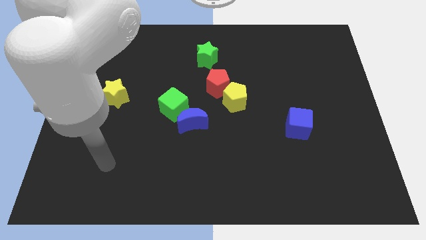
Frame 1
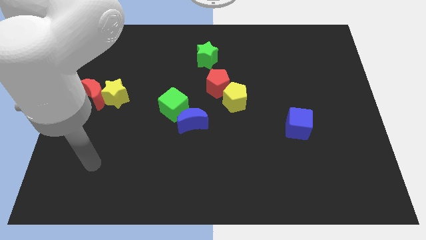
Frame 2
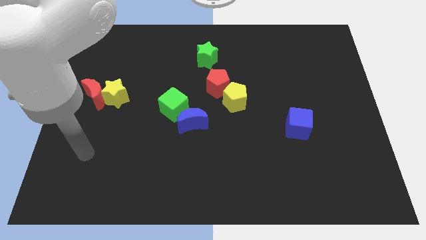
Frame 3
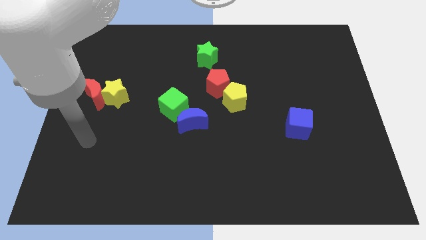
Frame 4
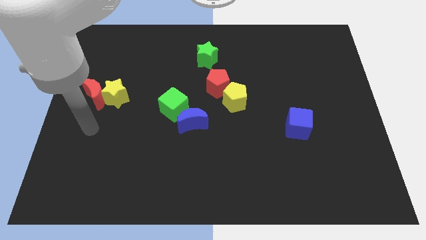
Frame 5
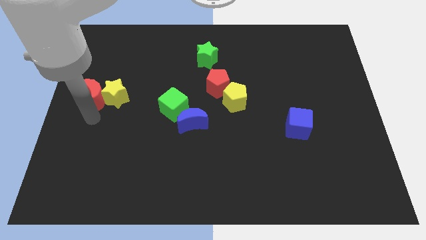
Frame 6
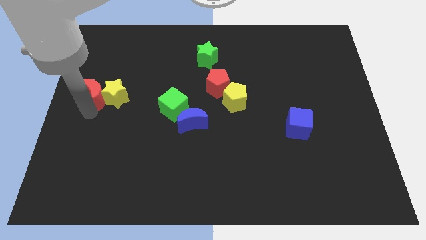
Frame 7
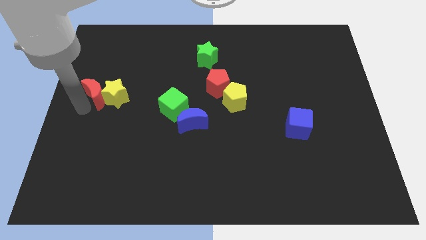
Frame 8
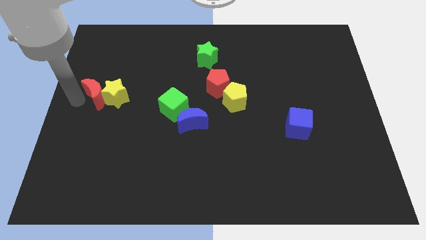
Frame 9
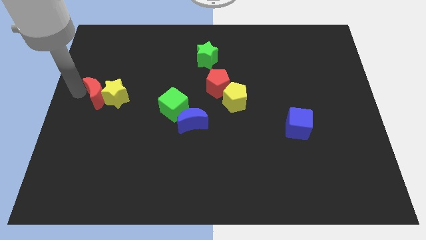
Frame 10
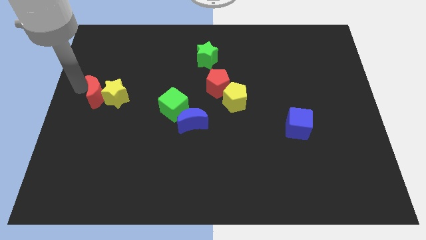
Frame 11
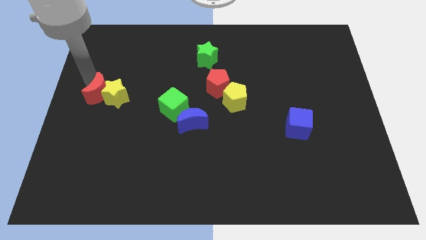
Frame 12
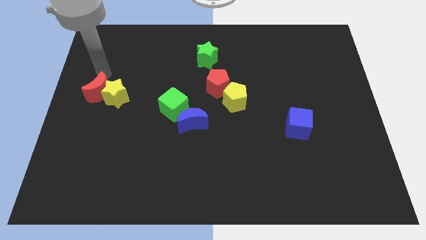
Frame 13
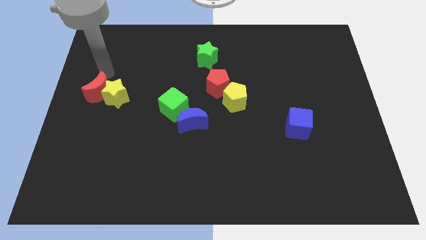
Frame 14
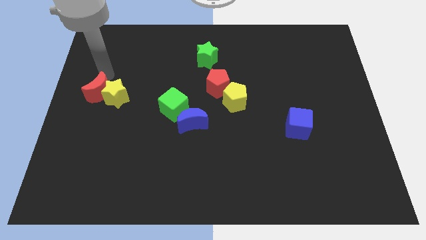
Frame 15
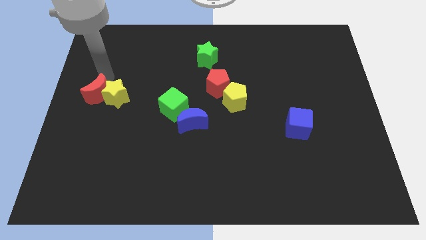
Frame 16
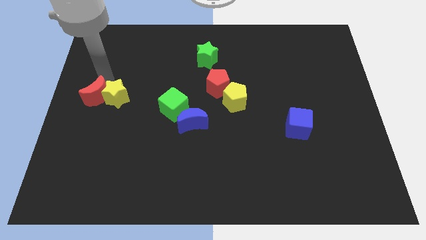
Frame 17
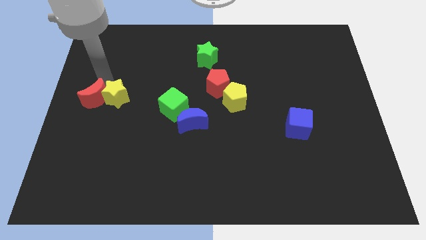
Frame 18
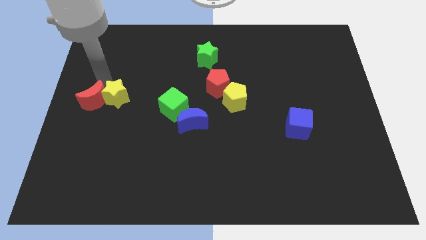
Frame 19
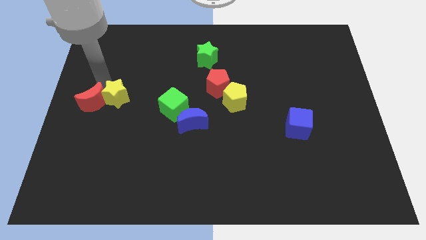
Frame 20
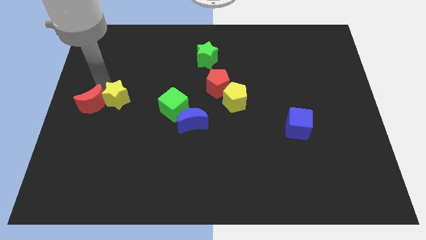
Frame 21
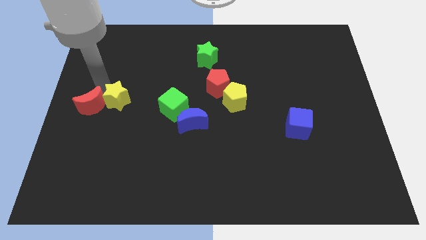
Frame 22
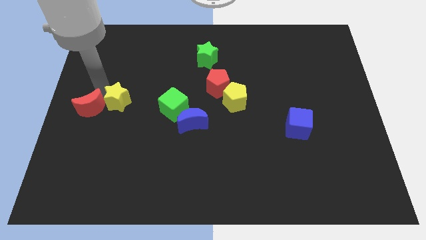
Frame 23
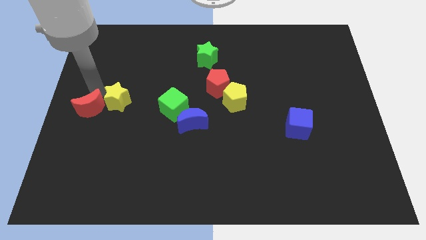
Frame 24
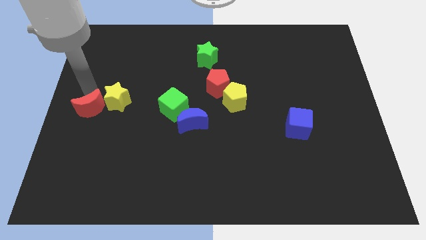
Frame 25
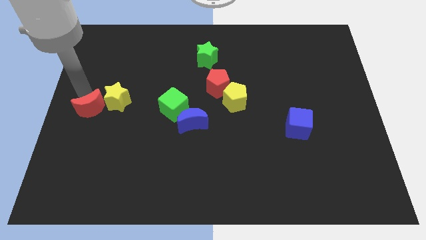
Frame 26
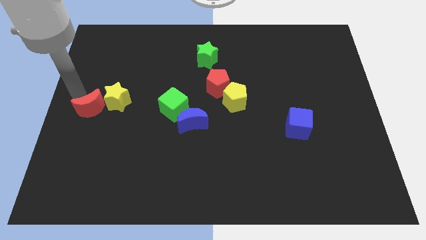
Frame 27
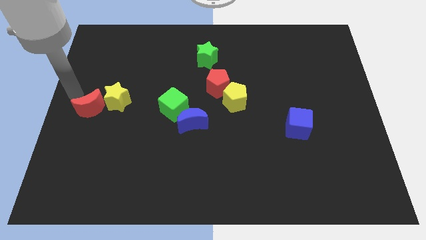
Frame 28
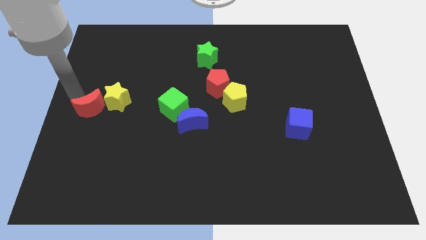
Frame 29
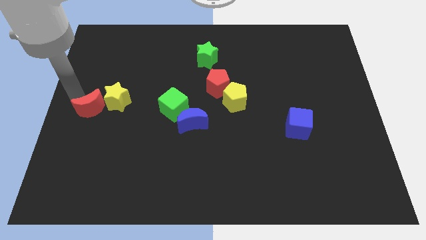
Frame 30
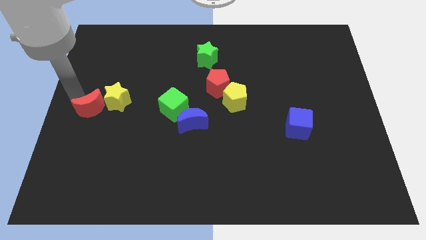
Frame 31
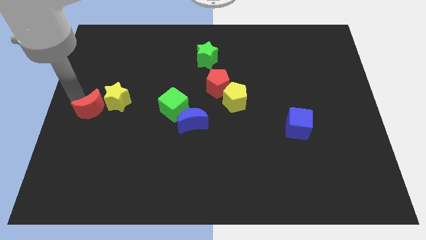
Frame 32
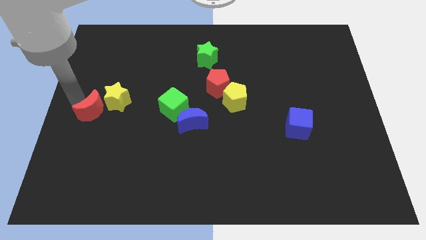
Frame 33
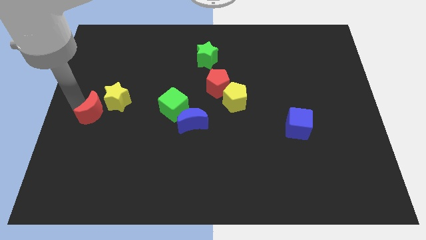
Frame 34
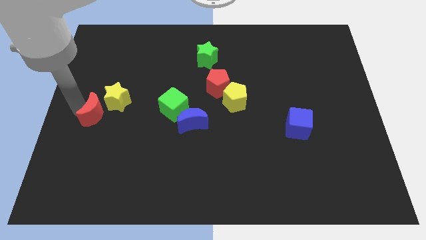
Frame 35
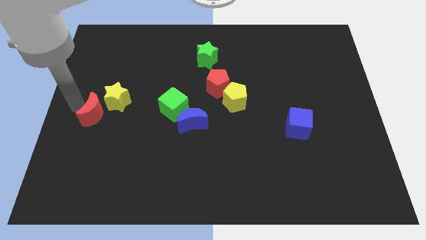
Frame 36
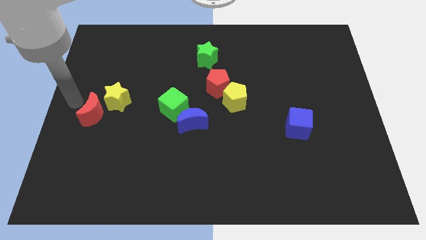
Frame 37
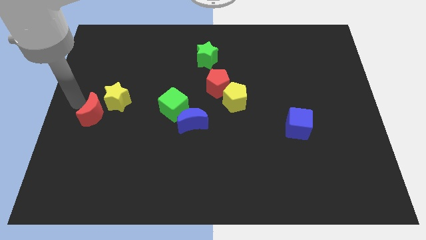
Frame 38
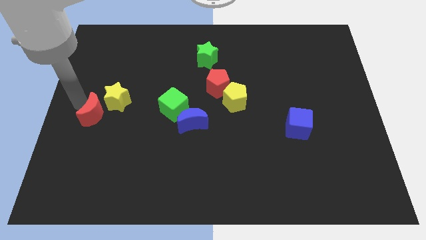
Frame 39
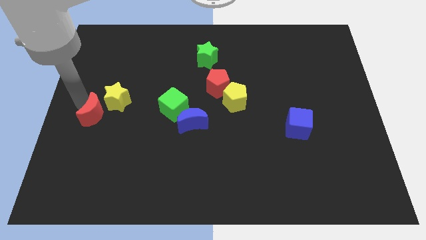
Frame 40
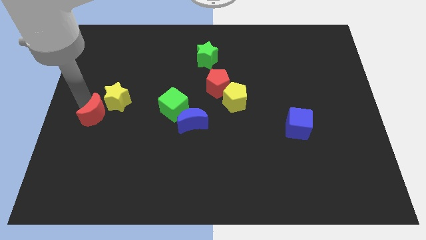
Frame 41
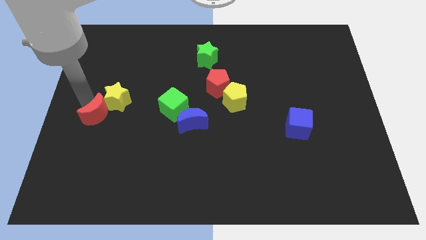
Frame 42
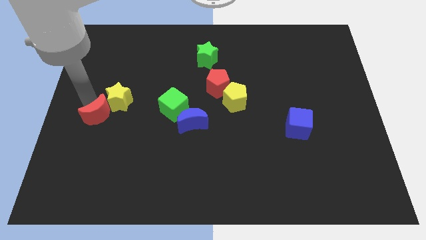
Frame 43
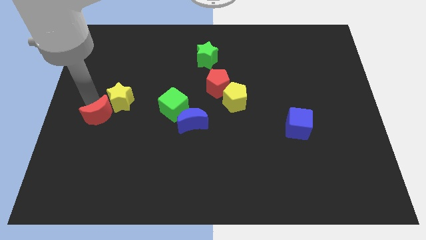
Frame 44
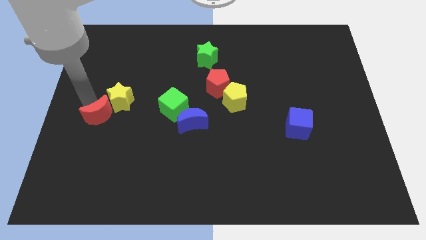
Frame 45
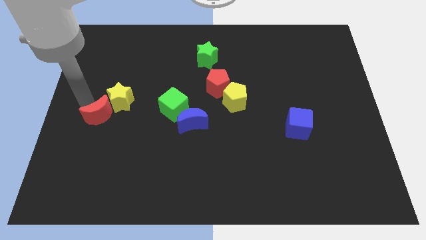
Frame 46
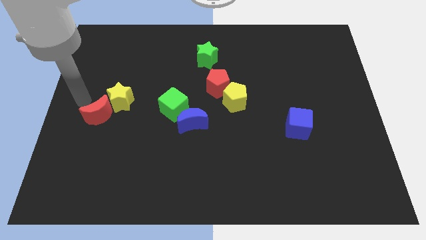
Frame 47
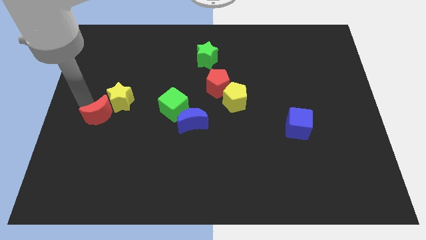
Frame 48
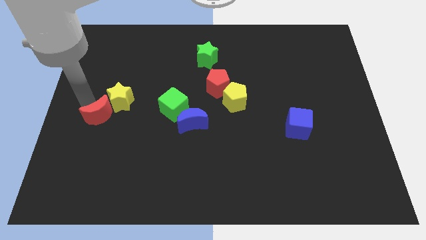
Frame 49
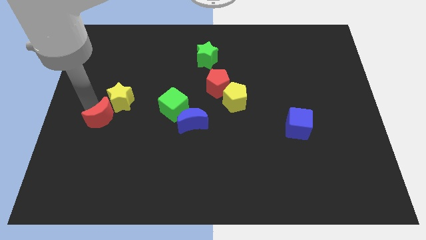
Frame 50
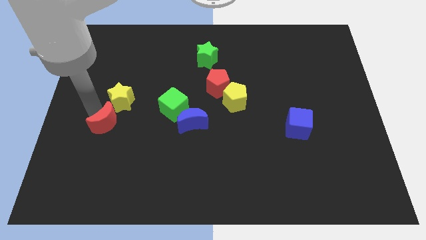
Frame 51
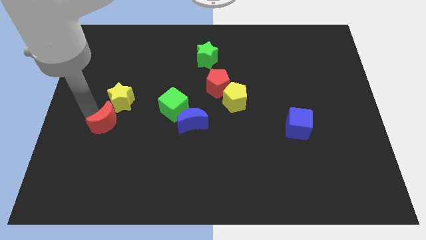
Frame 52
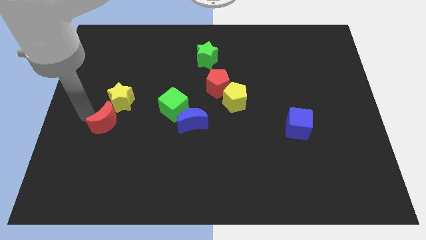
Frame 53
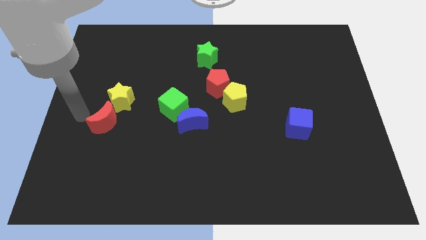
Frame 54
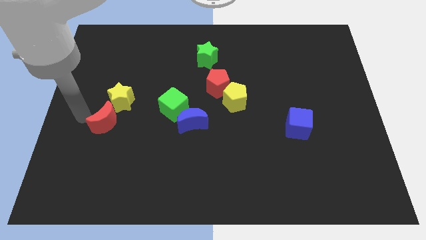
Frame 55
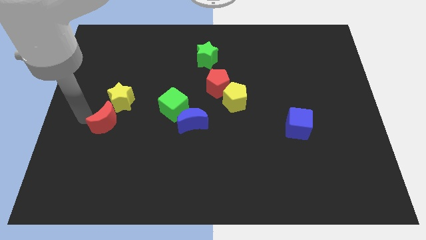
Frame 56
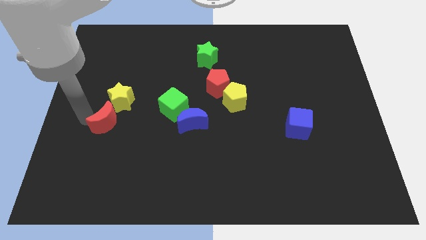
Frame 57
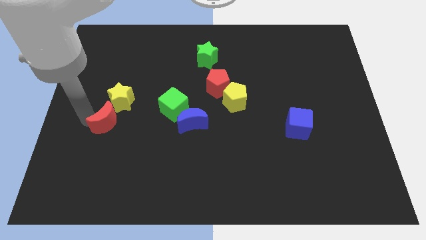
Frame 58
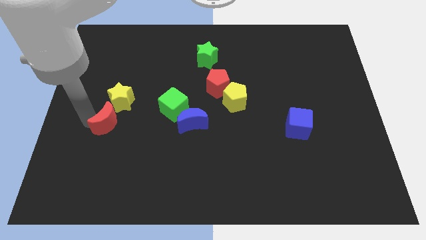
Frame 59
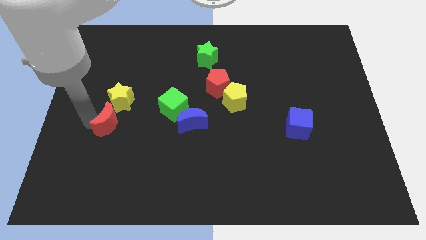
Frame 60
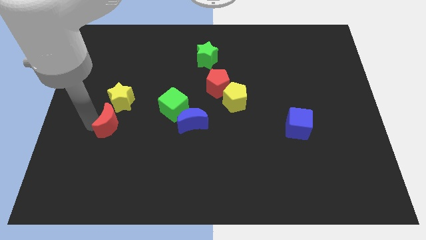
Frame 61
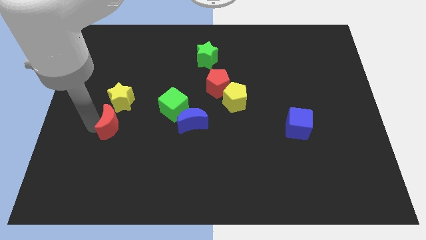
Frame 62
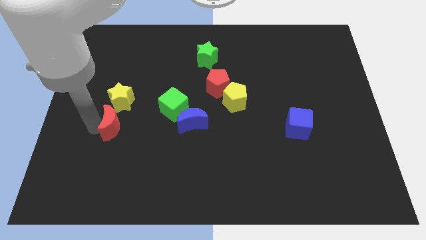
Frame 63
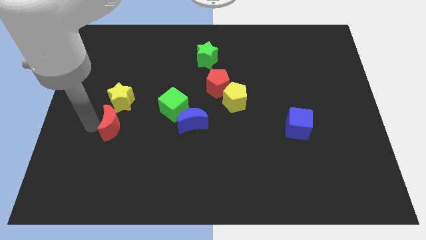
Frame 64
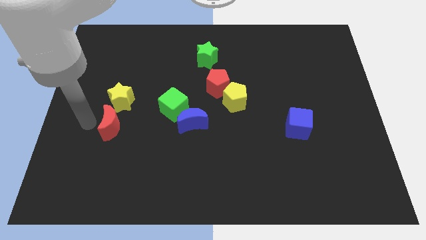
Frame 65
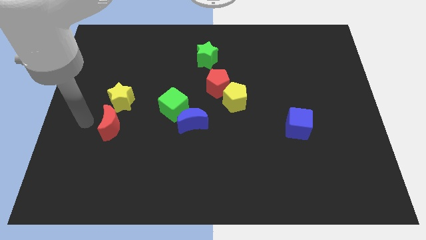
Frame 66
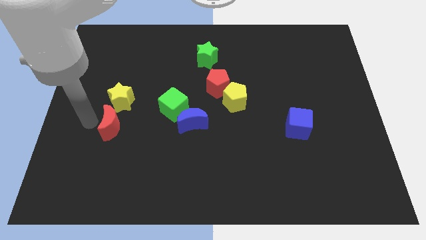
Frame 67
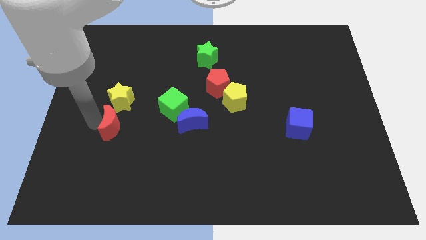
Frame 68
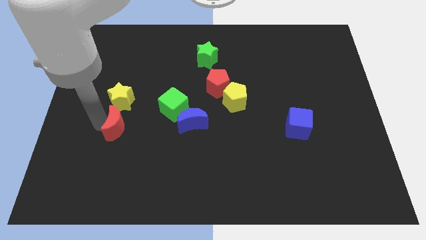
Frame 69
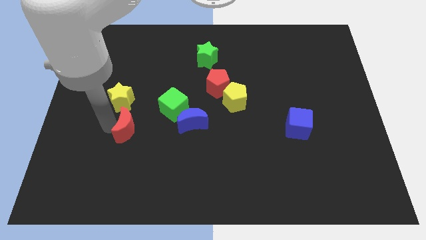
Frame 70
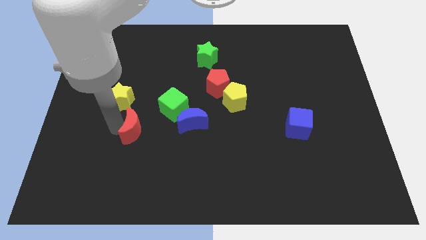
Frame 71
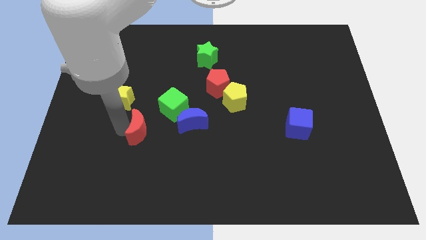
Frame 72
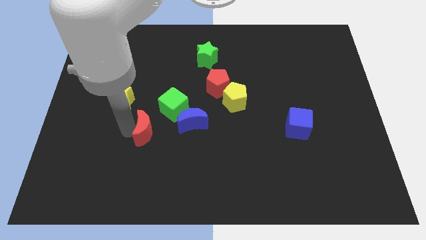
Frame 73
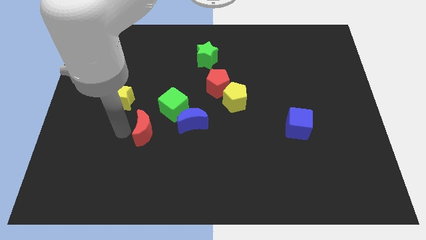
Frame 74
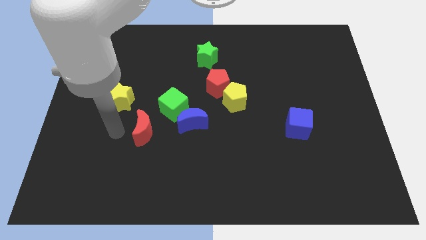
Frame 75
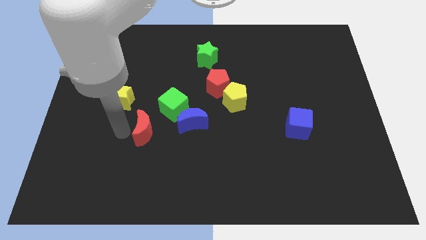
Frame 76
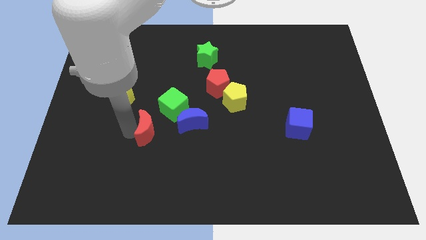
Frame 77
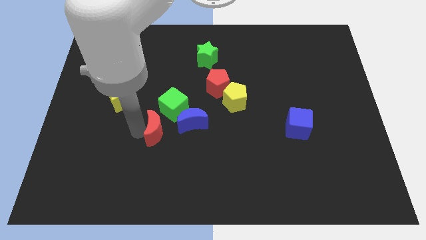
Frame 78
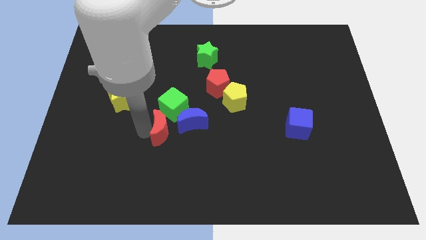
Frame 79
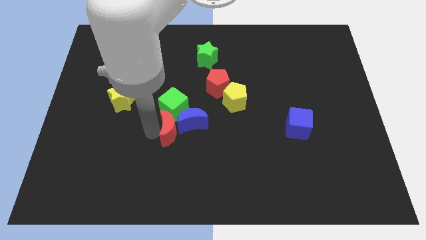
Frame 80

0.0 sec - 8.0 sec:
move the red moon to the blue moon
